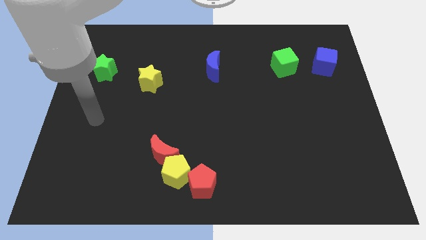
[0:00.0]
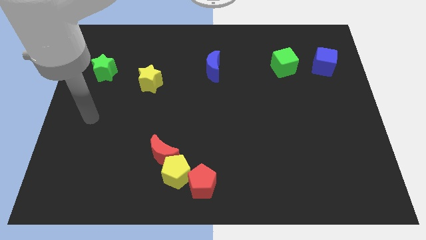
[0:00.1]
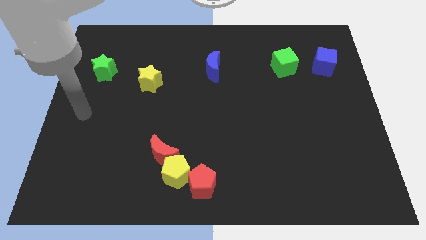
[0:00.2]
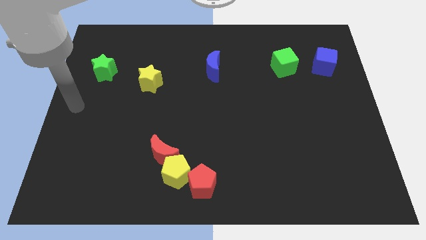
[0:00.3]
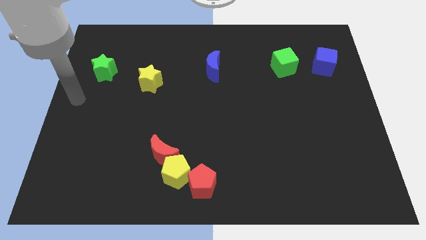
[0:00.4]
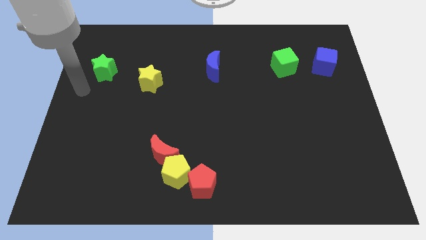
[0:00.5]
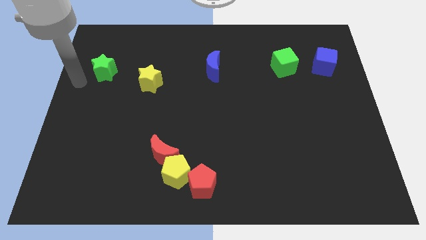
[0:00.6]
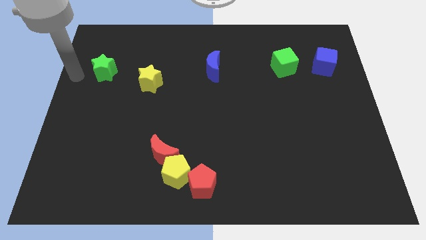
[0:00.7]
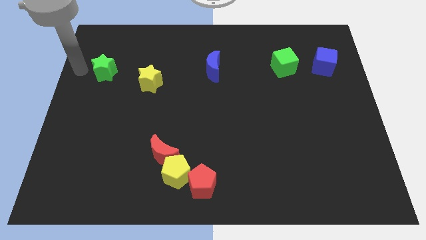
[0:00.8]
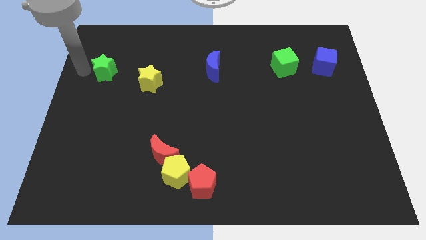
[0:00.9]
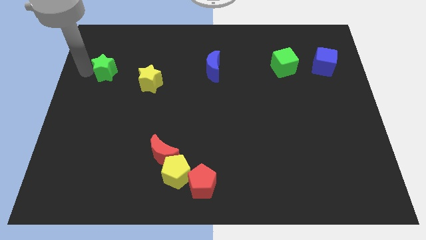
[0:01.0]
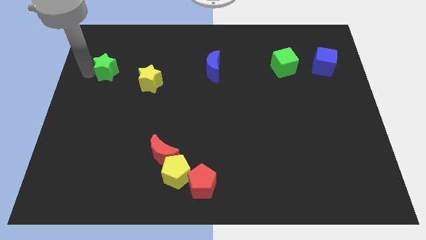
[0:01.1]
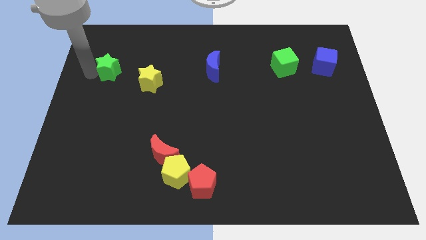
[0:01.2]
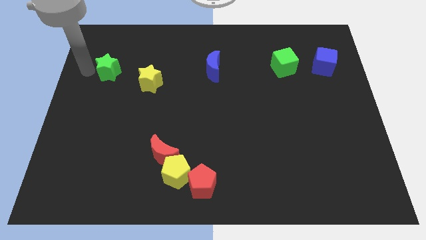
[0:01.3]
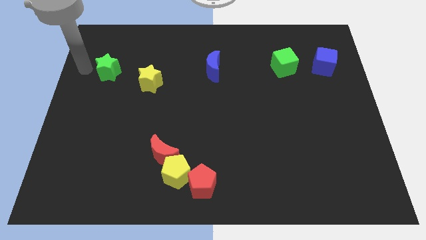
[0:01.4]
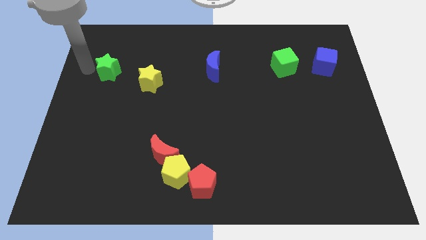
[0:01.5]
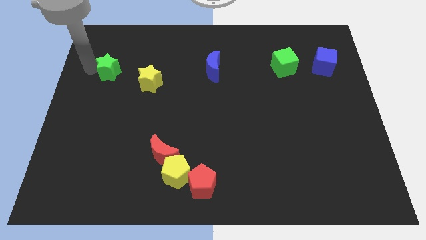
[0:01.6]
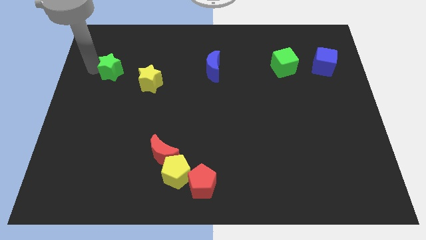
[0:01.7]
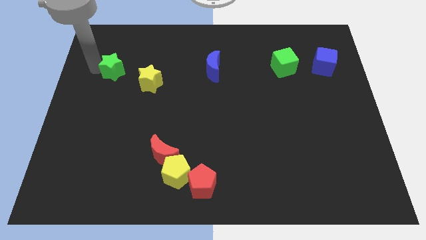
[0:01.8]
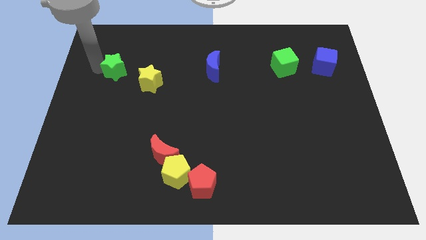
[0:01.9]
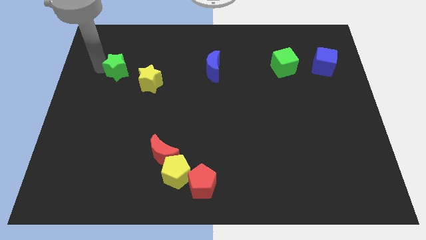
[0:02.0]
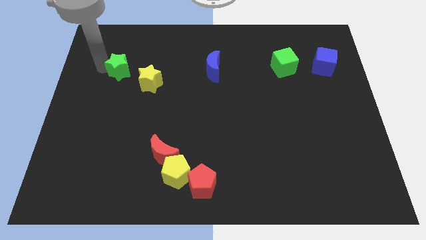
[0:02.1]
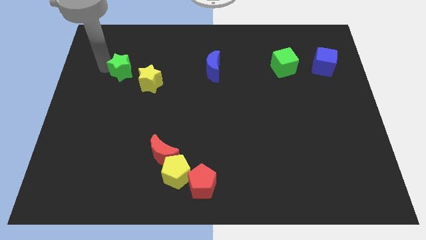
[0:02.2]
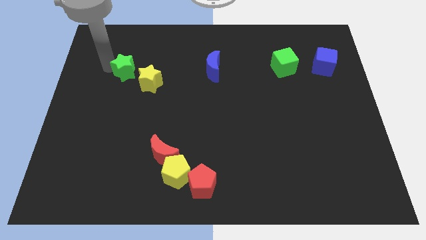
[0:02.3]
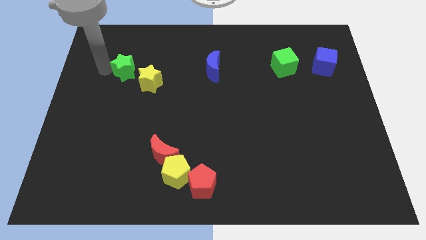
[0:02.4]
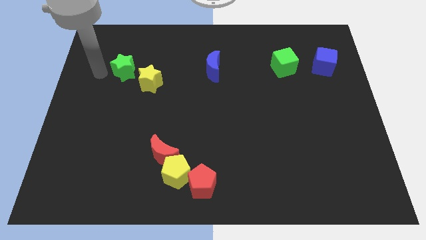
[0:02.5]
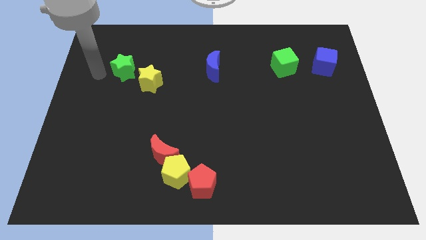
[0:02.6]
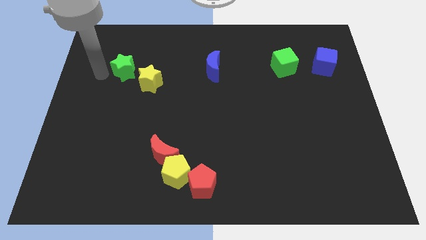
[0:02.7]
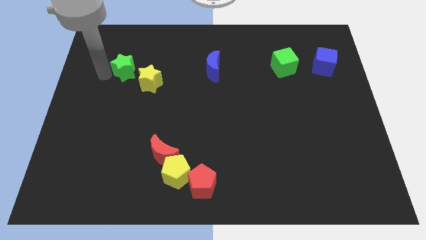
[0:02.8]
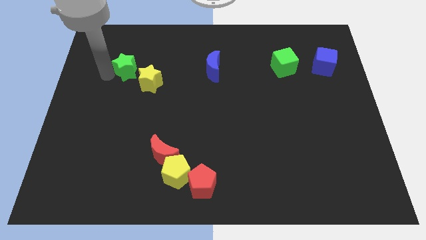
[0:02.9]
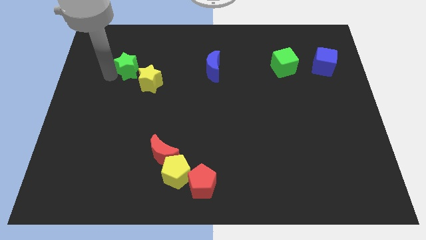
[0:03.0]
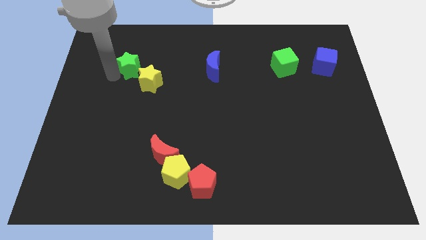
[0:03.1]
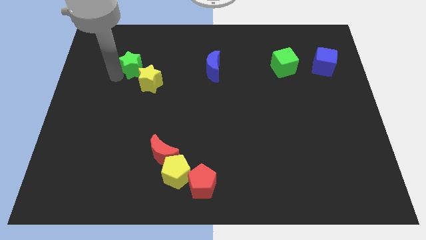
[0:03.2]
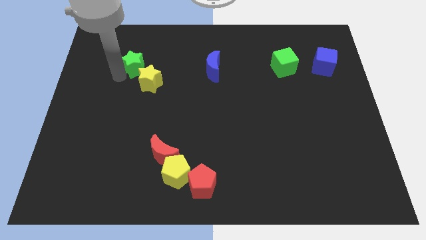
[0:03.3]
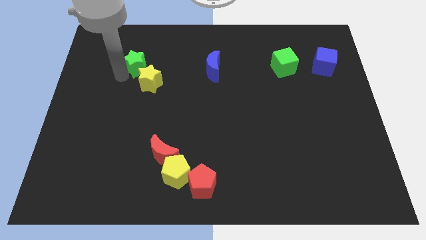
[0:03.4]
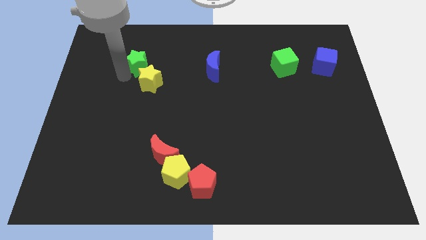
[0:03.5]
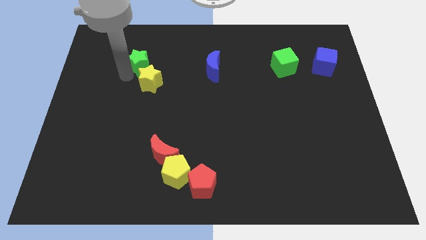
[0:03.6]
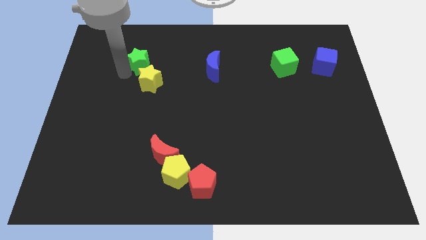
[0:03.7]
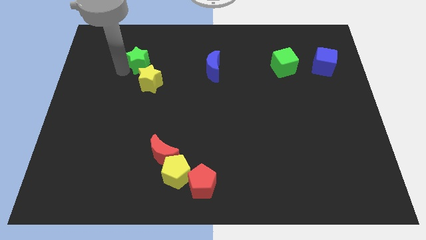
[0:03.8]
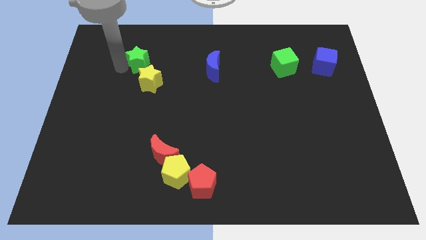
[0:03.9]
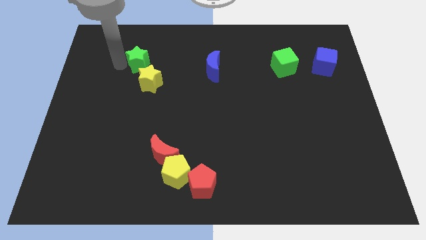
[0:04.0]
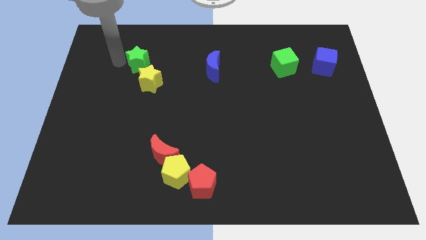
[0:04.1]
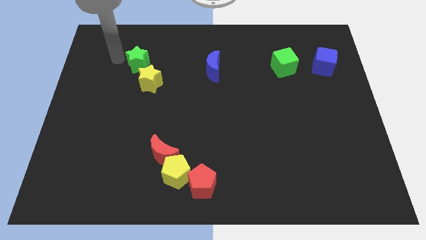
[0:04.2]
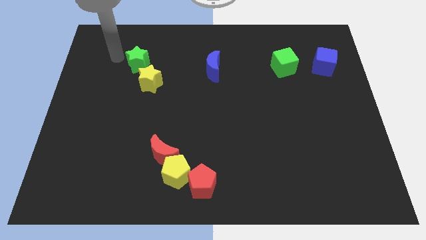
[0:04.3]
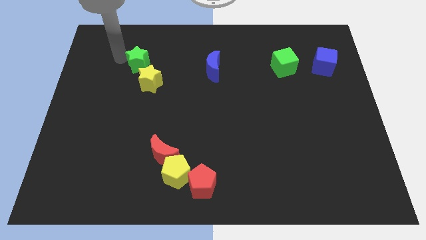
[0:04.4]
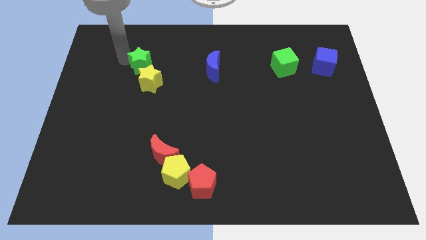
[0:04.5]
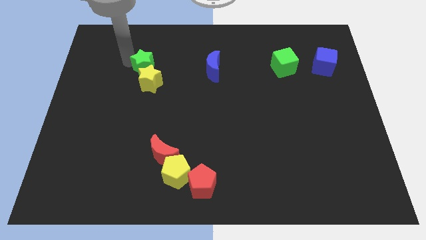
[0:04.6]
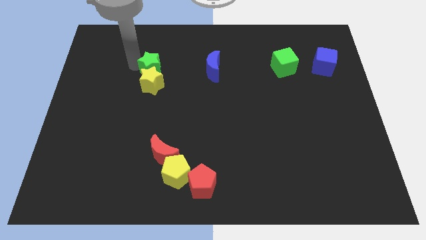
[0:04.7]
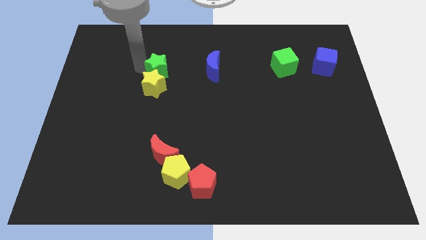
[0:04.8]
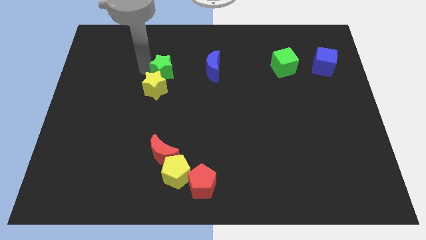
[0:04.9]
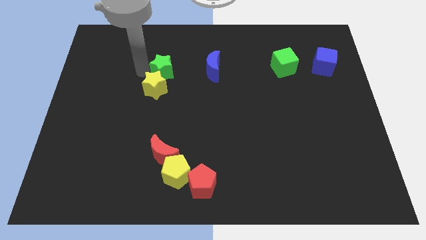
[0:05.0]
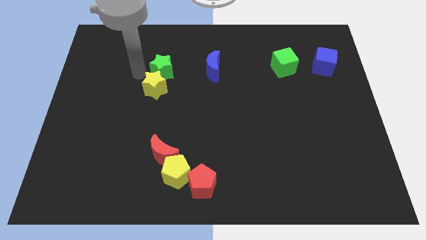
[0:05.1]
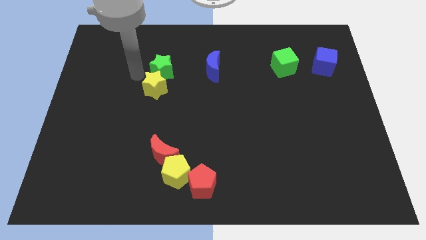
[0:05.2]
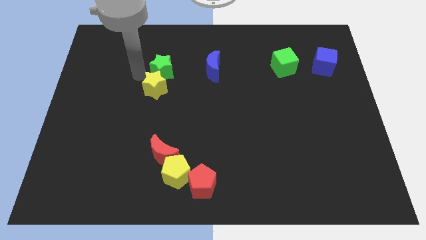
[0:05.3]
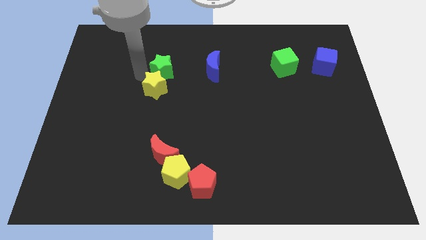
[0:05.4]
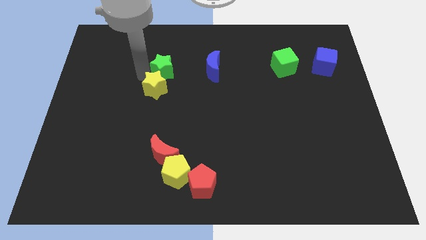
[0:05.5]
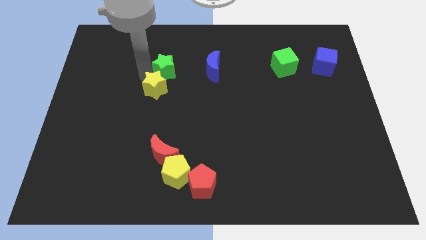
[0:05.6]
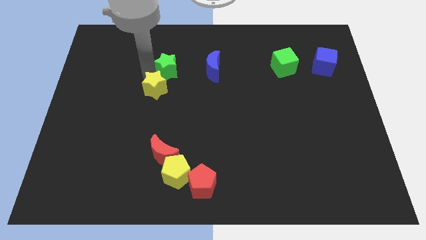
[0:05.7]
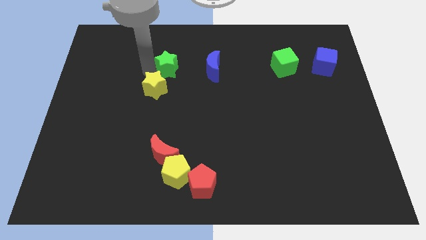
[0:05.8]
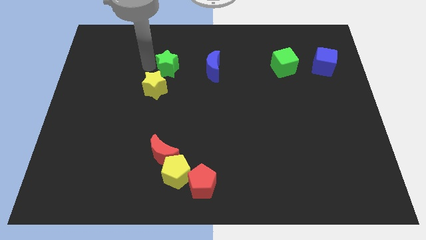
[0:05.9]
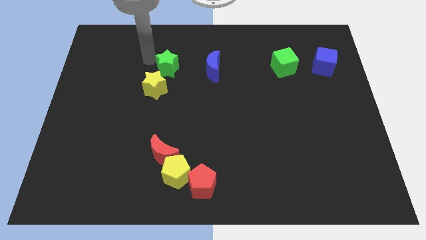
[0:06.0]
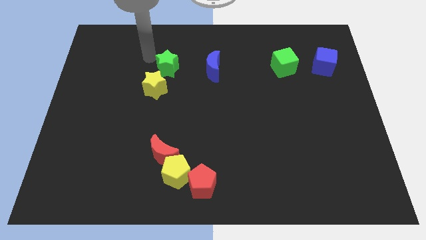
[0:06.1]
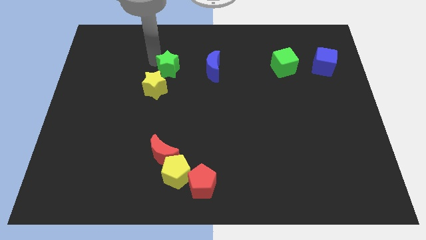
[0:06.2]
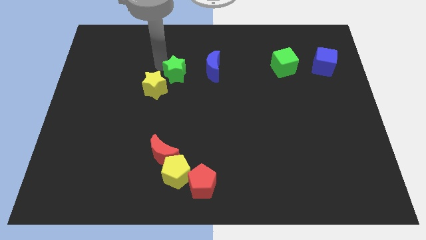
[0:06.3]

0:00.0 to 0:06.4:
move the green star to the right of the yellow star
